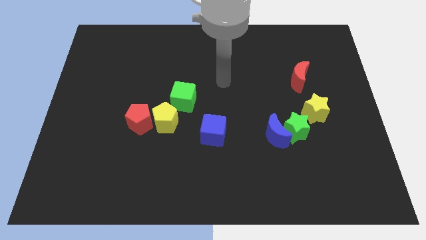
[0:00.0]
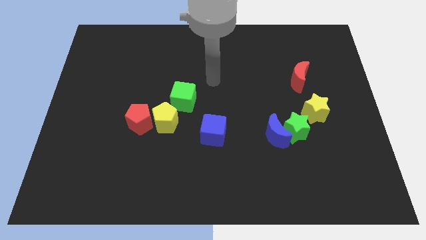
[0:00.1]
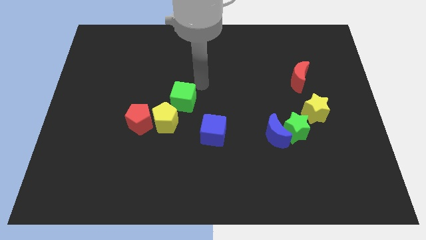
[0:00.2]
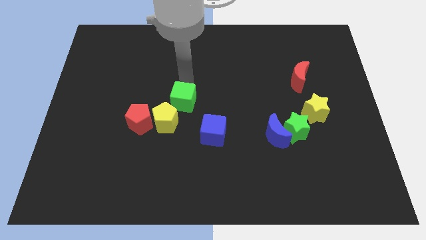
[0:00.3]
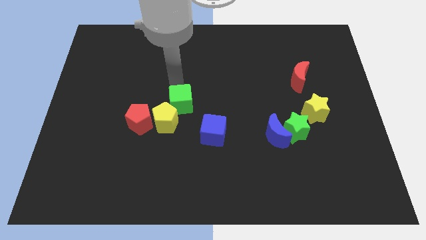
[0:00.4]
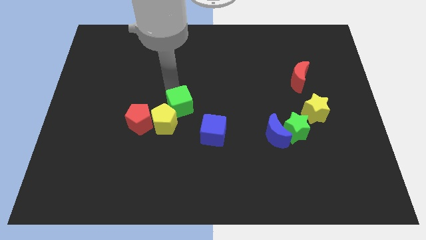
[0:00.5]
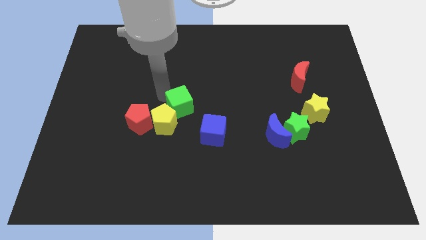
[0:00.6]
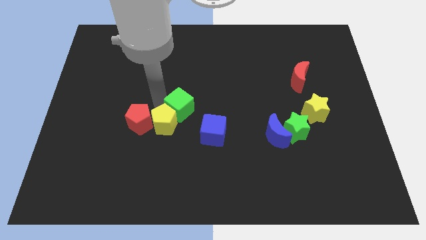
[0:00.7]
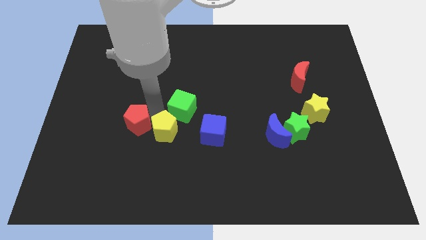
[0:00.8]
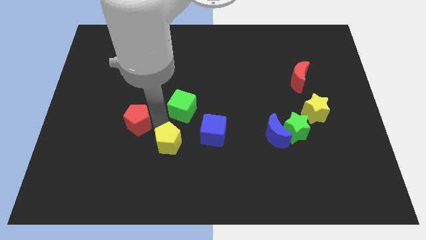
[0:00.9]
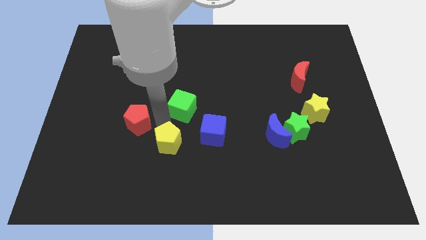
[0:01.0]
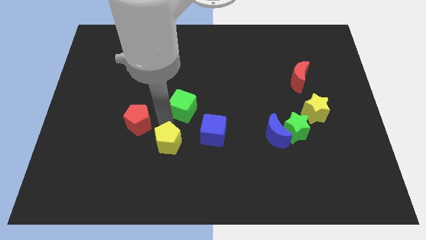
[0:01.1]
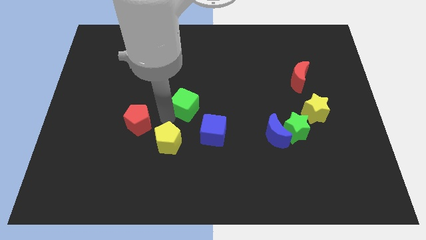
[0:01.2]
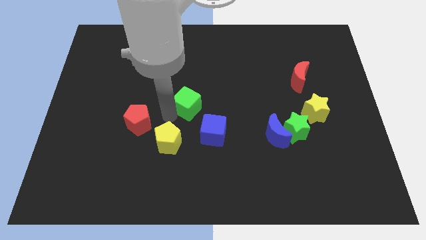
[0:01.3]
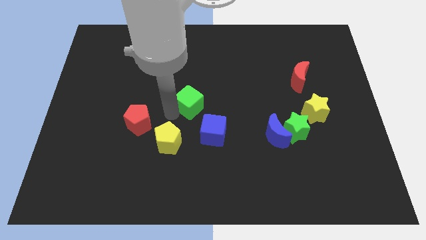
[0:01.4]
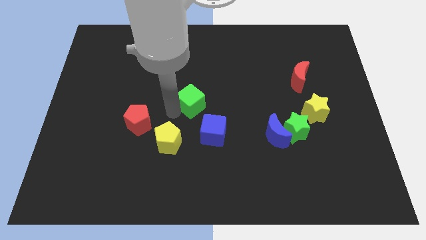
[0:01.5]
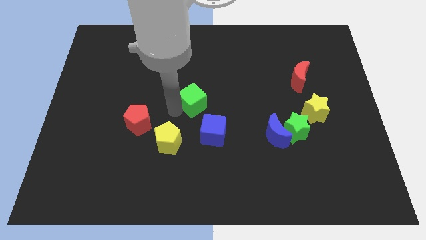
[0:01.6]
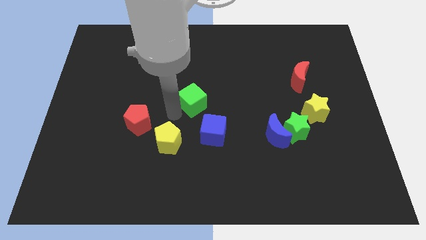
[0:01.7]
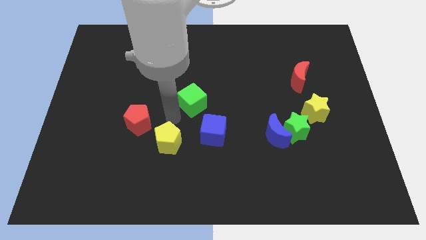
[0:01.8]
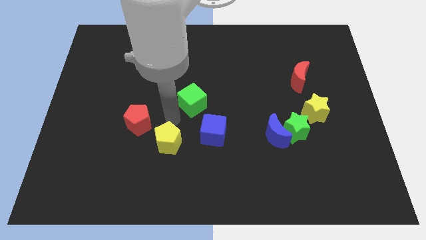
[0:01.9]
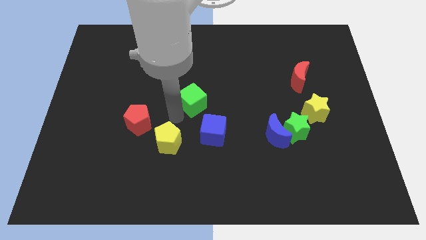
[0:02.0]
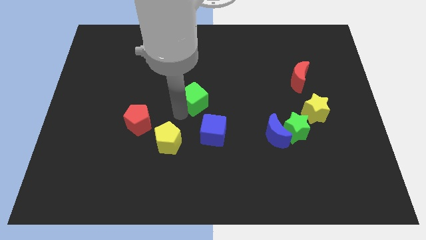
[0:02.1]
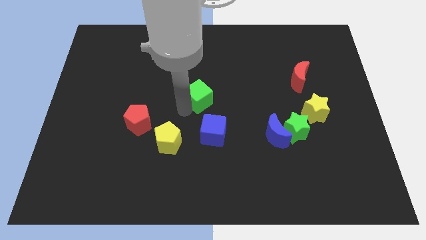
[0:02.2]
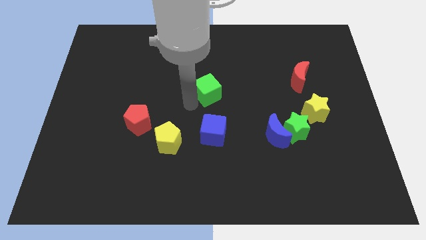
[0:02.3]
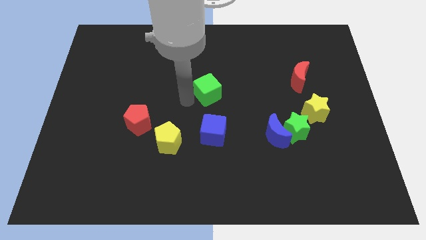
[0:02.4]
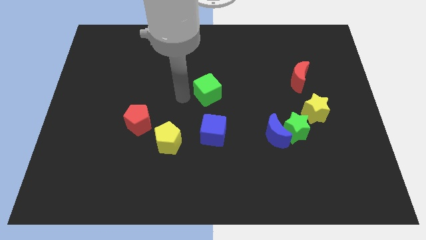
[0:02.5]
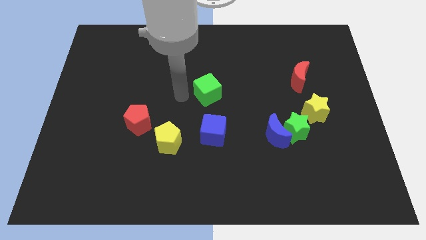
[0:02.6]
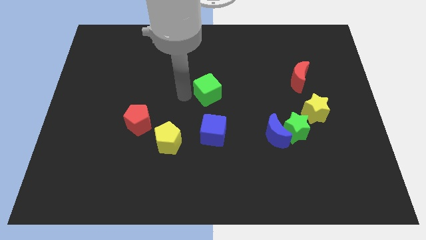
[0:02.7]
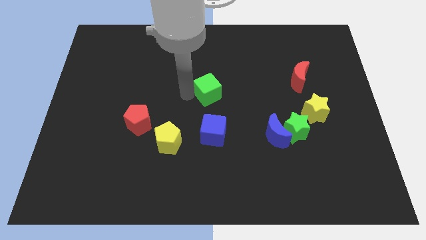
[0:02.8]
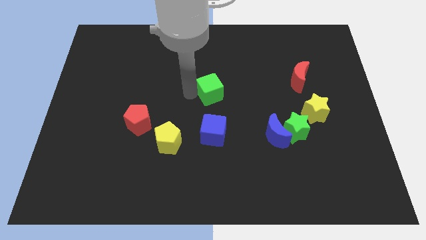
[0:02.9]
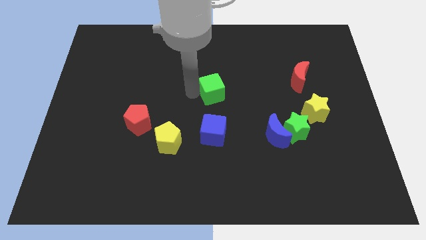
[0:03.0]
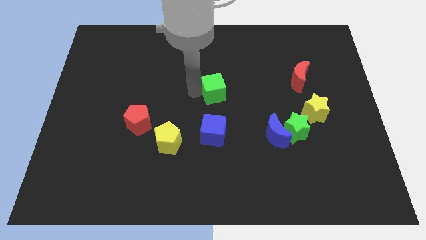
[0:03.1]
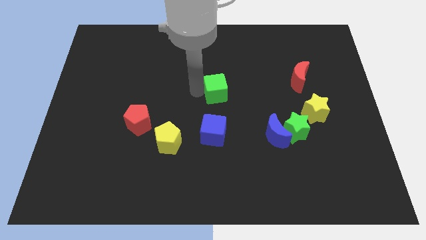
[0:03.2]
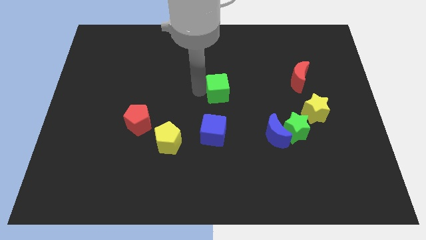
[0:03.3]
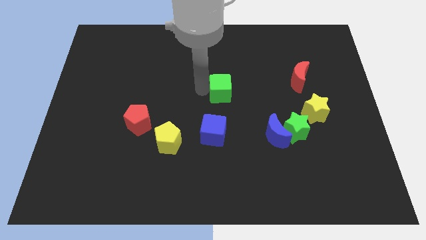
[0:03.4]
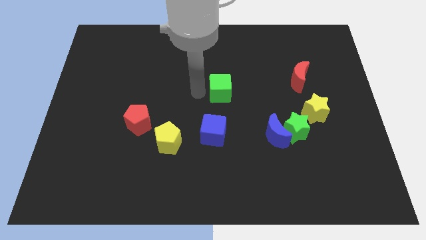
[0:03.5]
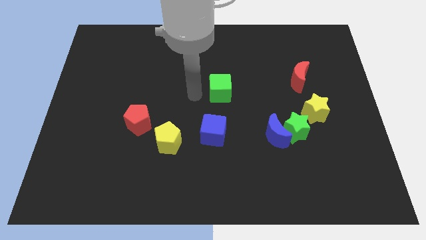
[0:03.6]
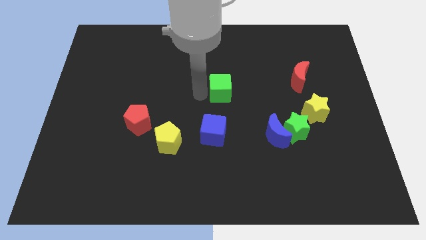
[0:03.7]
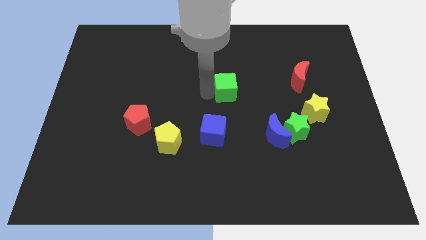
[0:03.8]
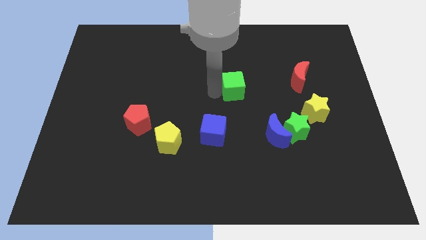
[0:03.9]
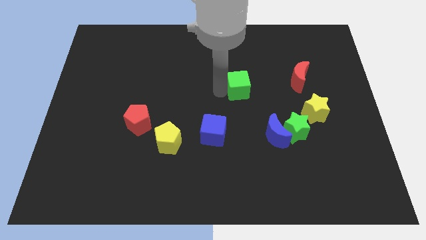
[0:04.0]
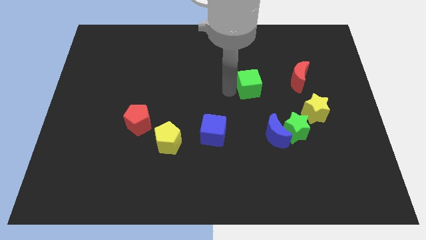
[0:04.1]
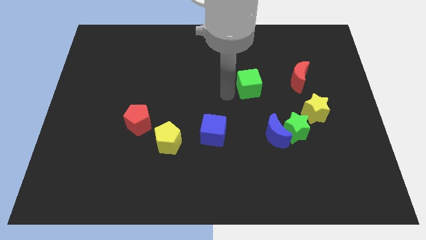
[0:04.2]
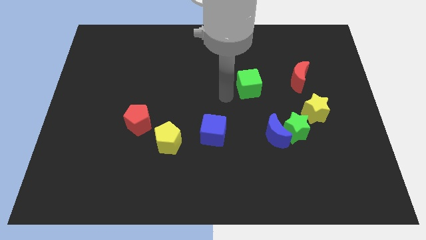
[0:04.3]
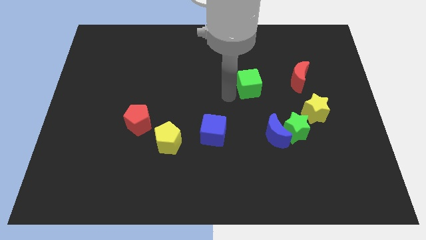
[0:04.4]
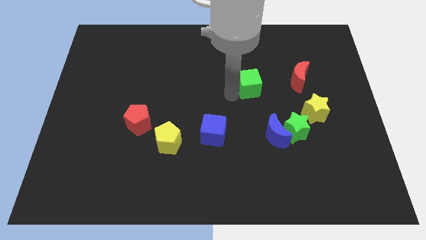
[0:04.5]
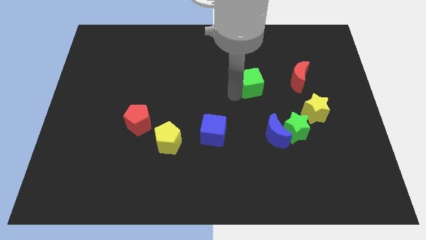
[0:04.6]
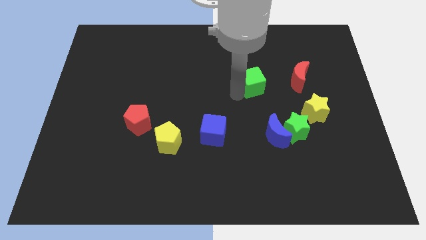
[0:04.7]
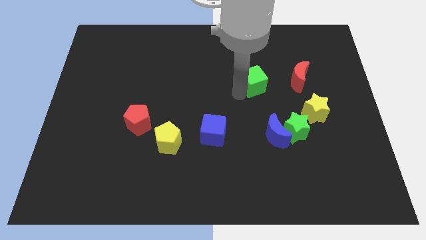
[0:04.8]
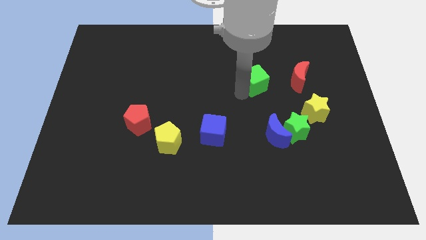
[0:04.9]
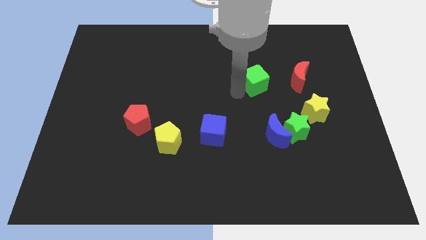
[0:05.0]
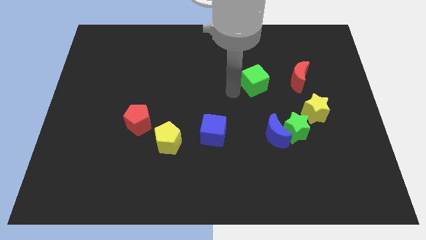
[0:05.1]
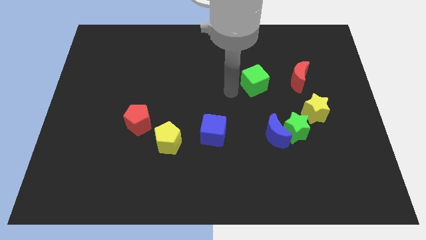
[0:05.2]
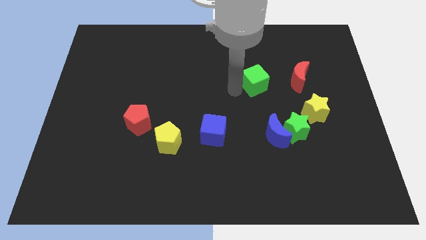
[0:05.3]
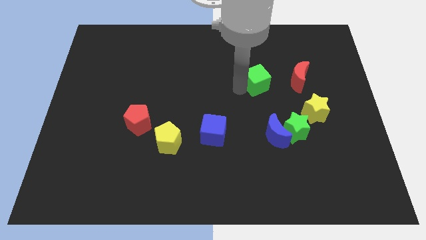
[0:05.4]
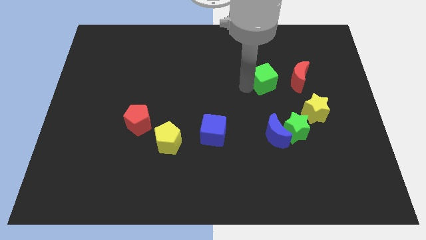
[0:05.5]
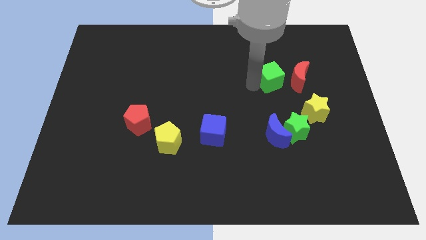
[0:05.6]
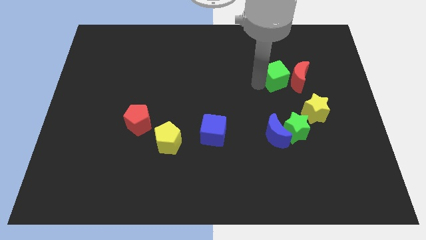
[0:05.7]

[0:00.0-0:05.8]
slide the green cube next to the red moon

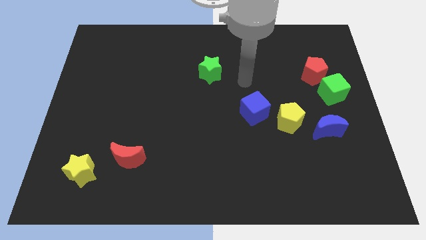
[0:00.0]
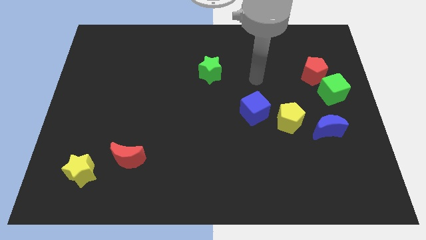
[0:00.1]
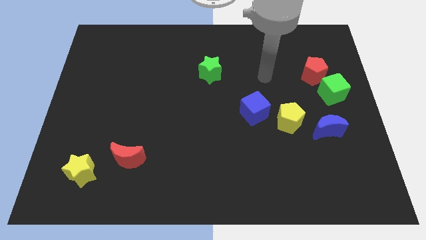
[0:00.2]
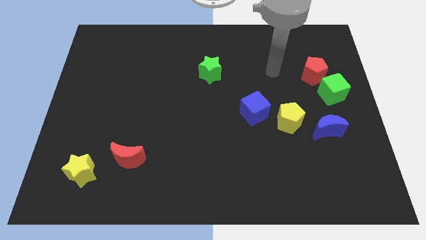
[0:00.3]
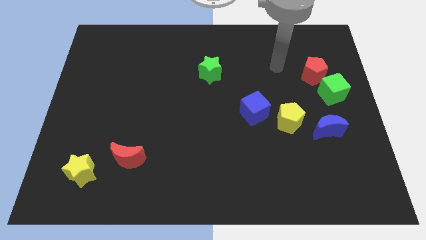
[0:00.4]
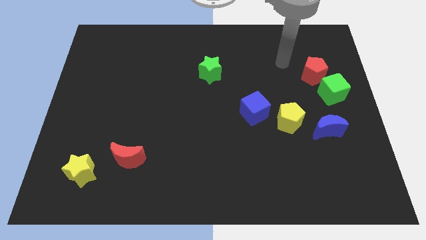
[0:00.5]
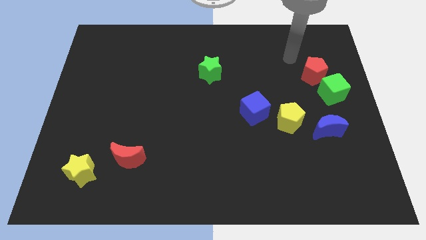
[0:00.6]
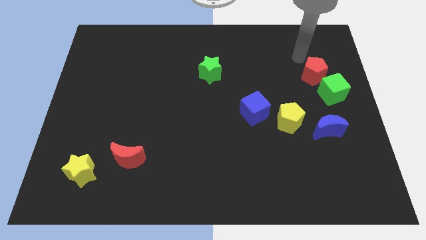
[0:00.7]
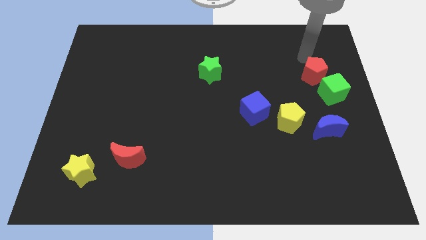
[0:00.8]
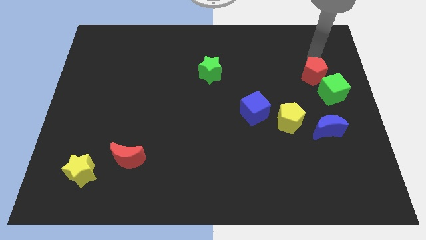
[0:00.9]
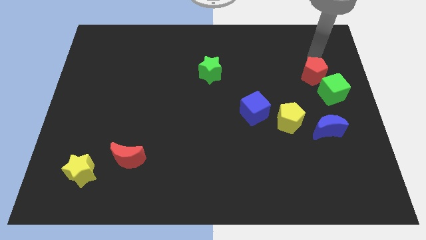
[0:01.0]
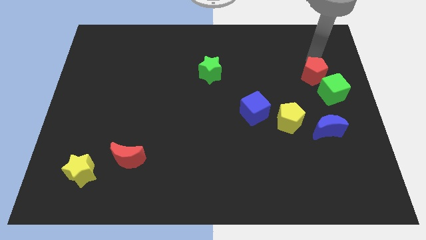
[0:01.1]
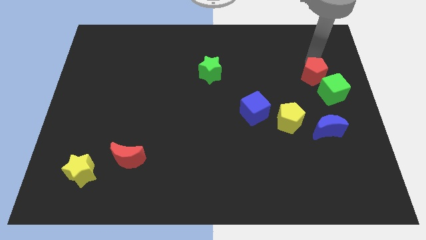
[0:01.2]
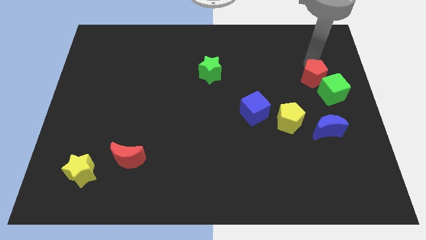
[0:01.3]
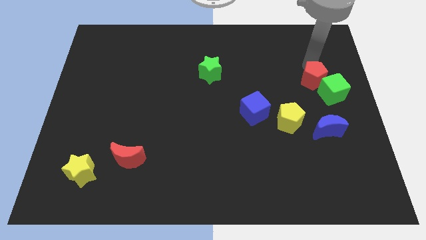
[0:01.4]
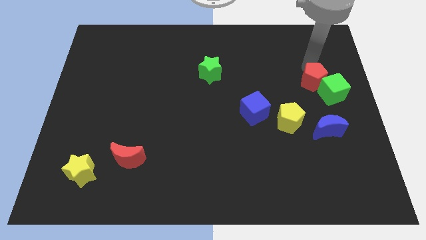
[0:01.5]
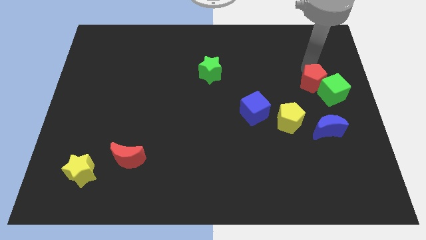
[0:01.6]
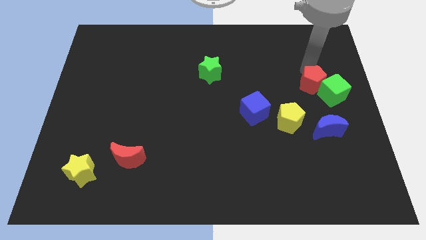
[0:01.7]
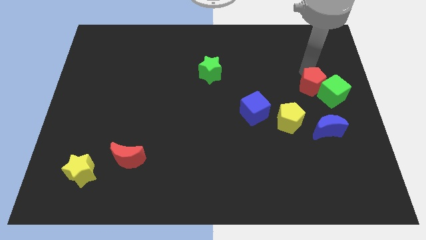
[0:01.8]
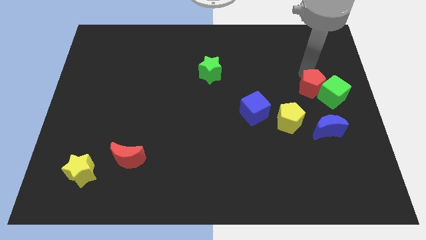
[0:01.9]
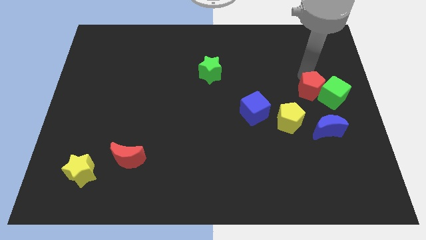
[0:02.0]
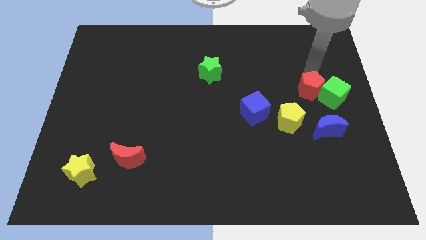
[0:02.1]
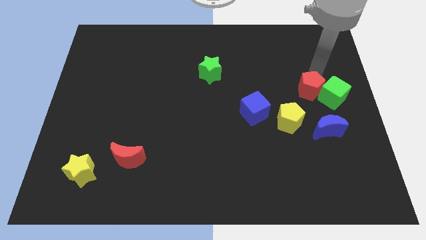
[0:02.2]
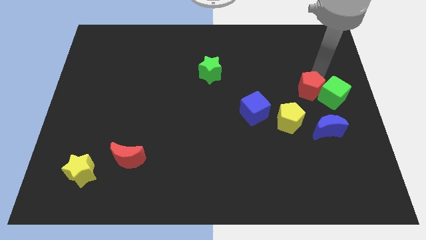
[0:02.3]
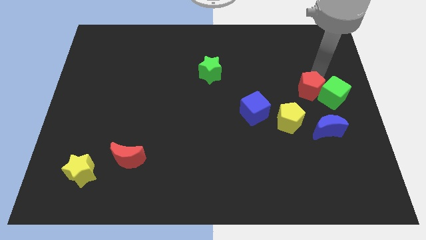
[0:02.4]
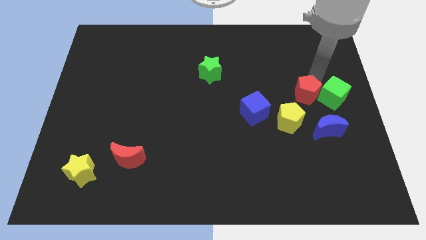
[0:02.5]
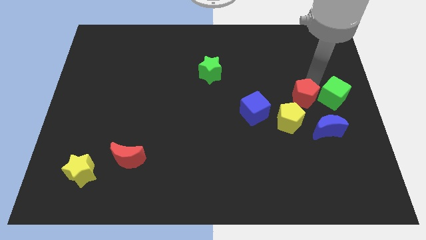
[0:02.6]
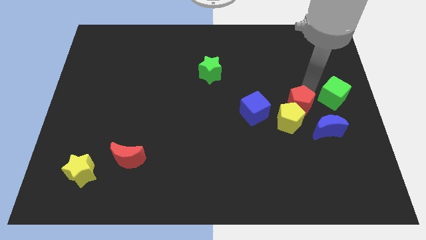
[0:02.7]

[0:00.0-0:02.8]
push the red pentagon to the yellow pentagon
